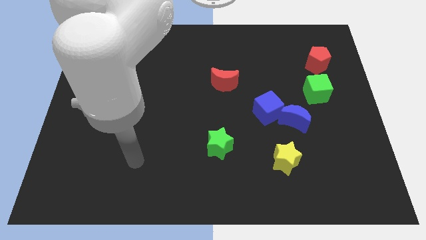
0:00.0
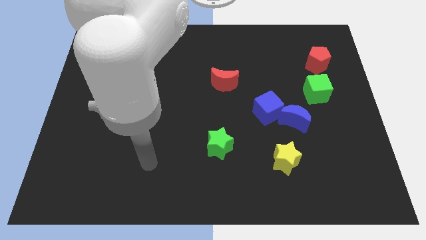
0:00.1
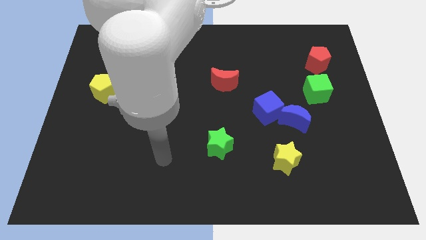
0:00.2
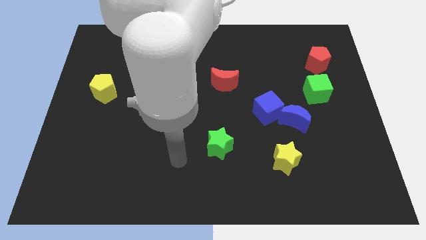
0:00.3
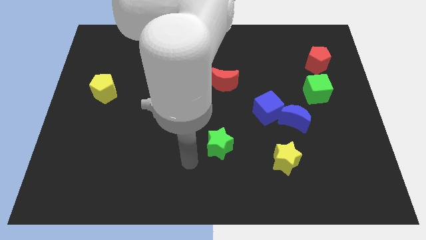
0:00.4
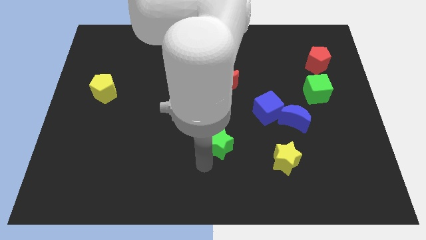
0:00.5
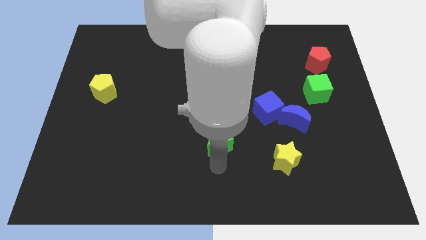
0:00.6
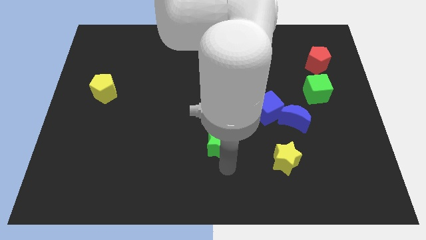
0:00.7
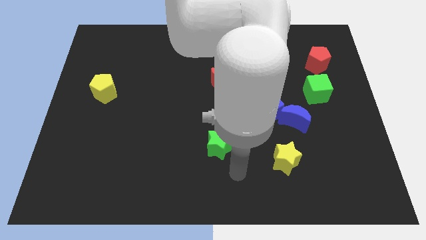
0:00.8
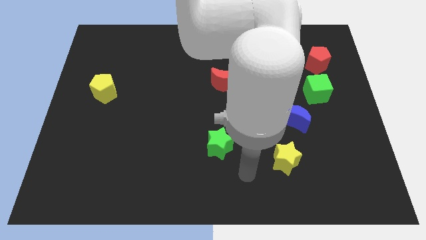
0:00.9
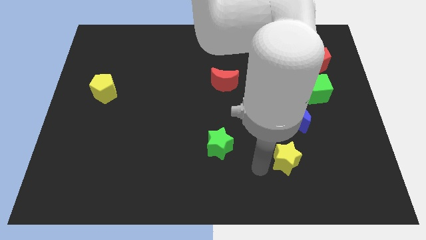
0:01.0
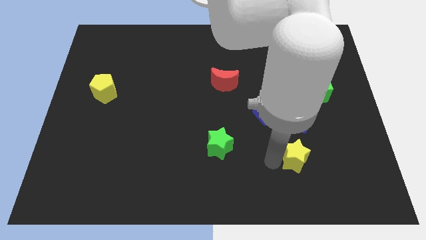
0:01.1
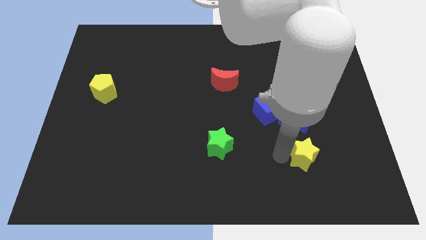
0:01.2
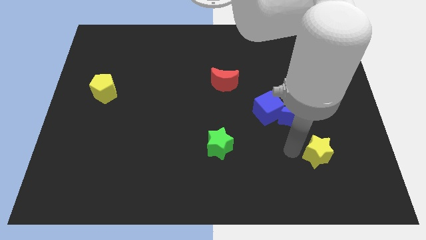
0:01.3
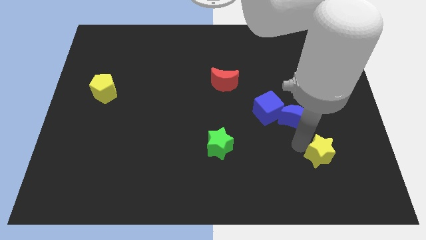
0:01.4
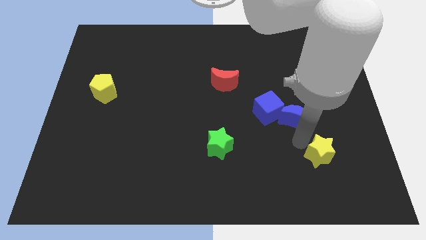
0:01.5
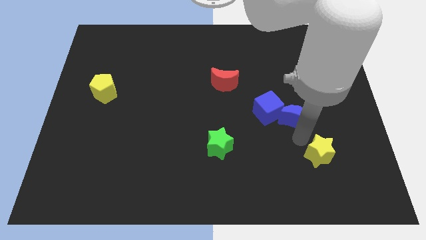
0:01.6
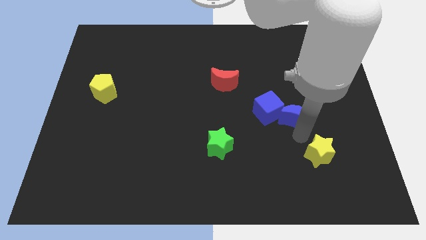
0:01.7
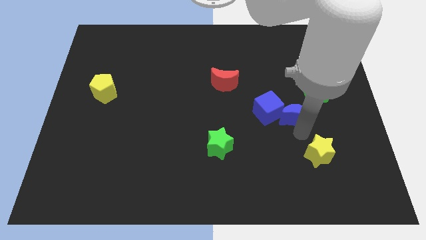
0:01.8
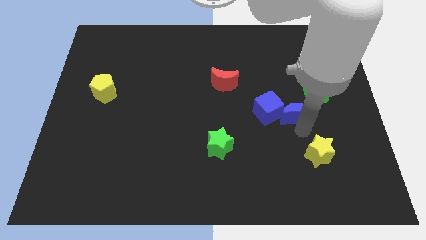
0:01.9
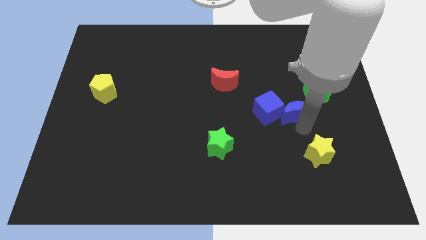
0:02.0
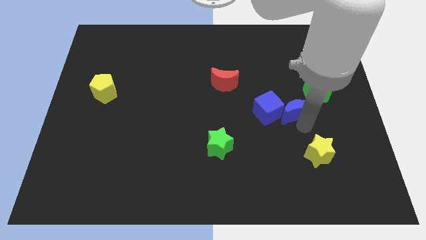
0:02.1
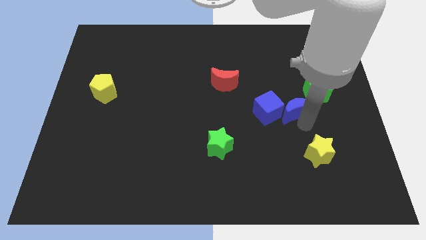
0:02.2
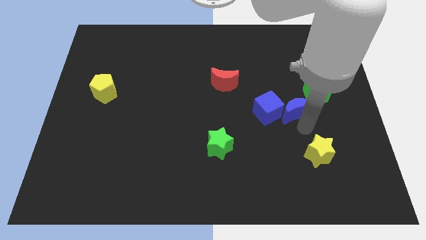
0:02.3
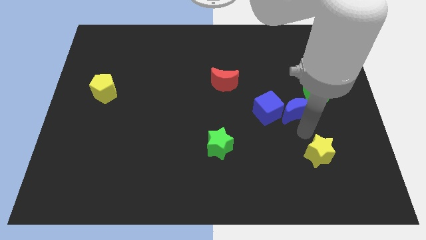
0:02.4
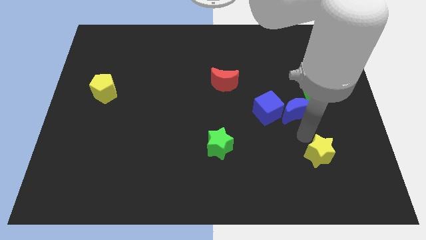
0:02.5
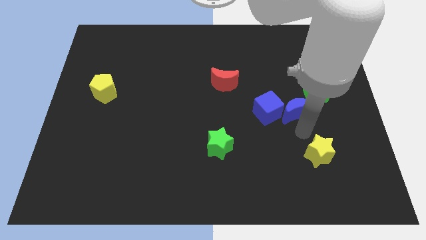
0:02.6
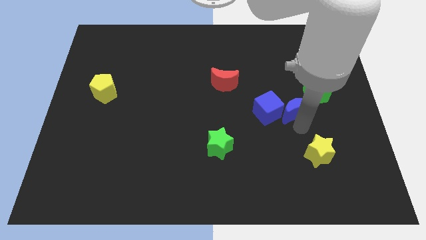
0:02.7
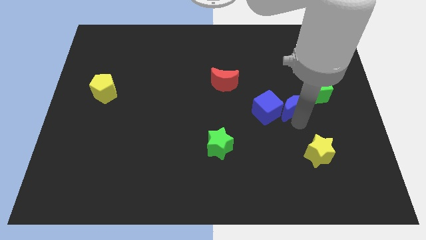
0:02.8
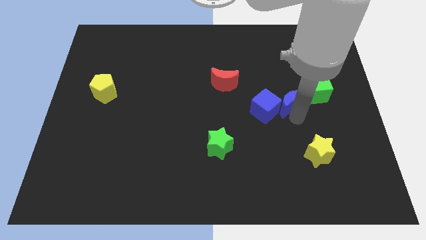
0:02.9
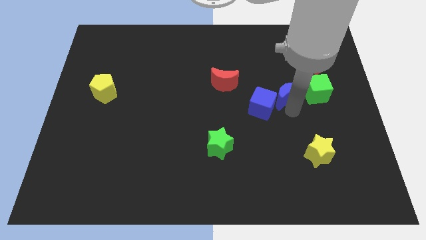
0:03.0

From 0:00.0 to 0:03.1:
slide the blue moon up a bit

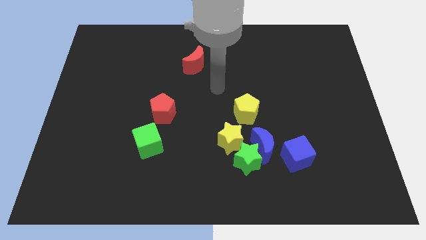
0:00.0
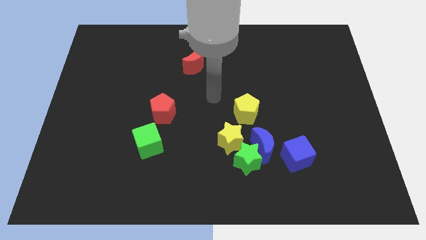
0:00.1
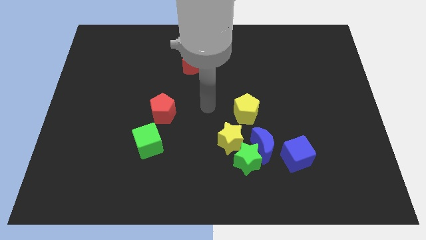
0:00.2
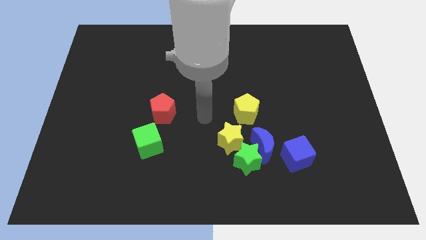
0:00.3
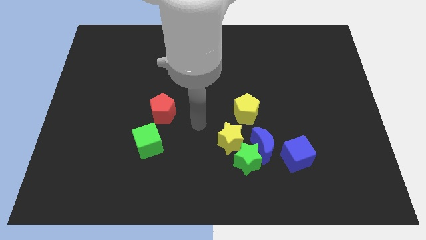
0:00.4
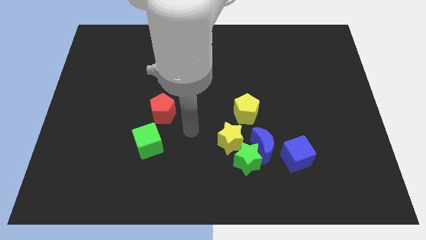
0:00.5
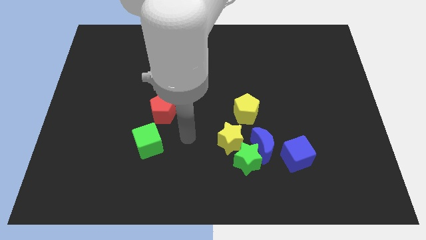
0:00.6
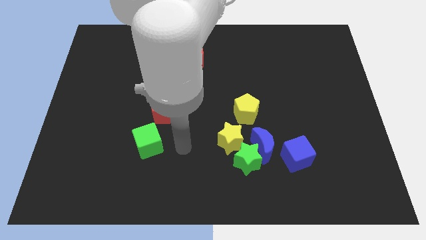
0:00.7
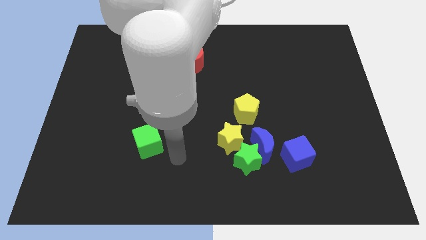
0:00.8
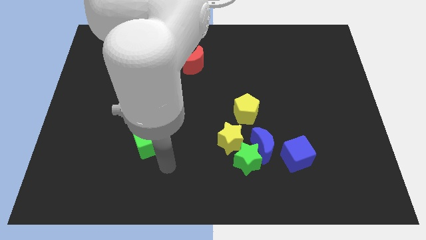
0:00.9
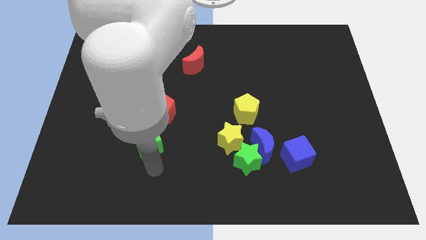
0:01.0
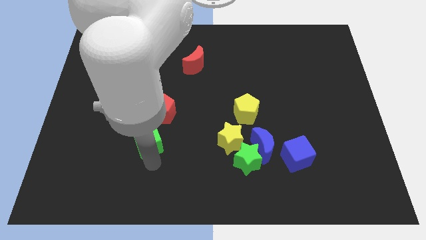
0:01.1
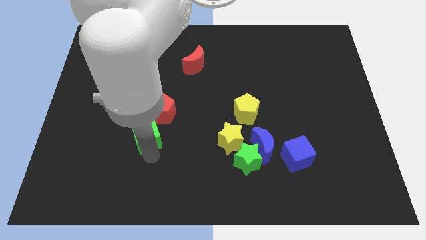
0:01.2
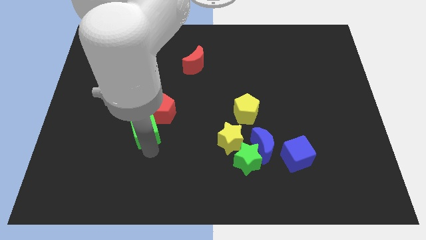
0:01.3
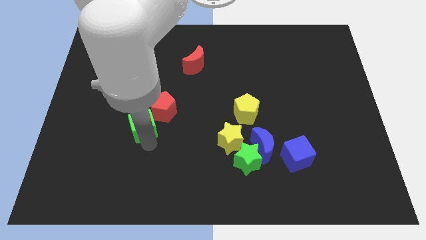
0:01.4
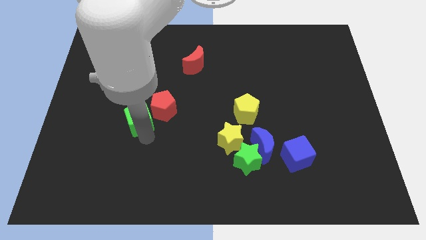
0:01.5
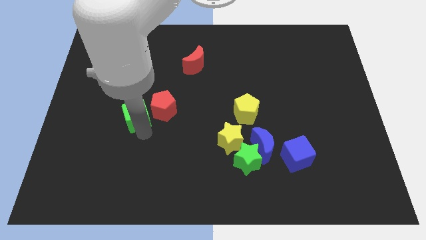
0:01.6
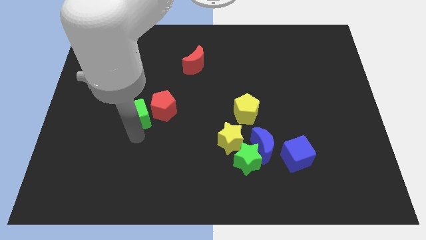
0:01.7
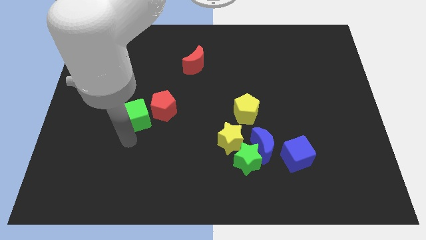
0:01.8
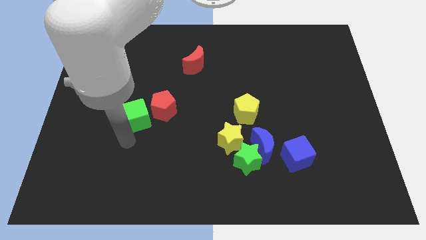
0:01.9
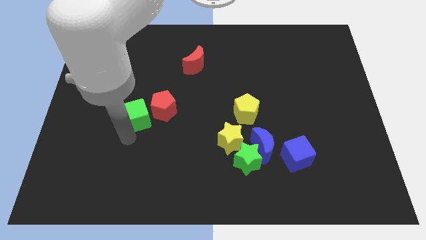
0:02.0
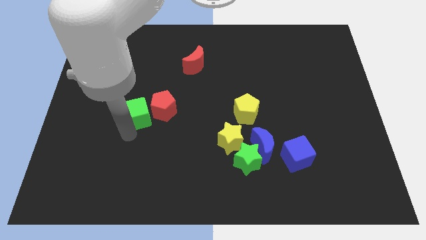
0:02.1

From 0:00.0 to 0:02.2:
push the green cube upwards slightly

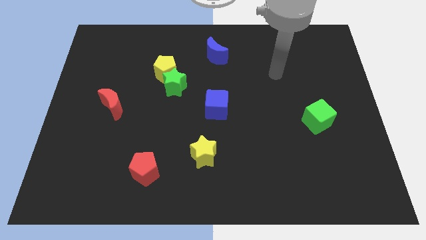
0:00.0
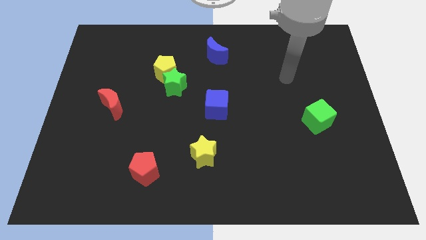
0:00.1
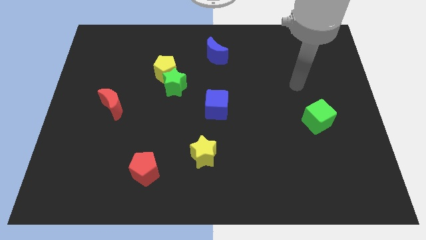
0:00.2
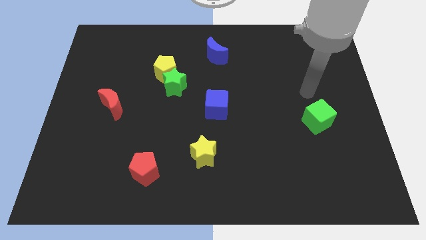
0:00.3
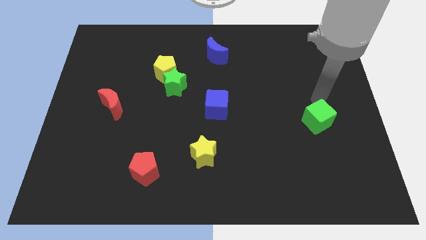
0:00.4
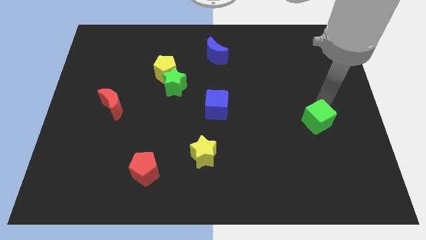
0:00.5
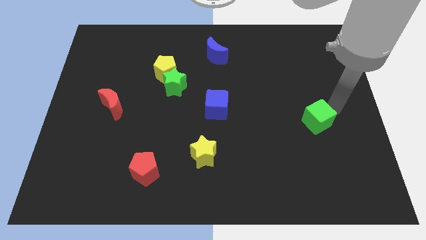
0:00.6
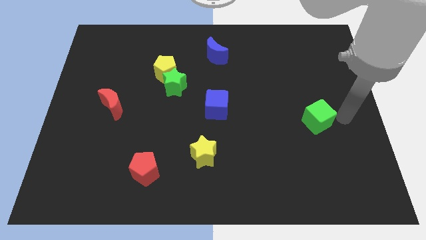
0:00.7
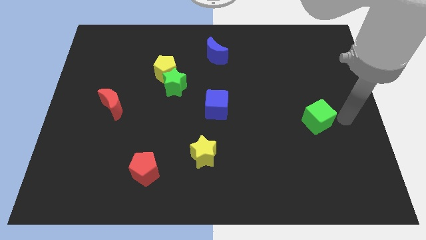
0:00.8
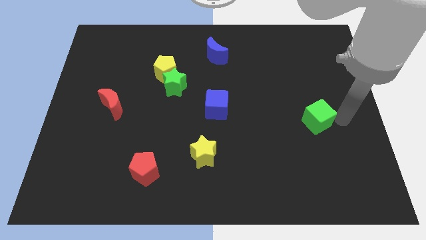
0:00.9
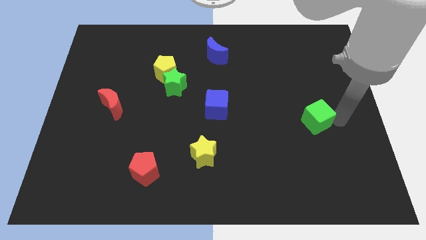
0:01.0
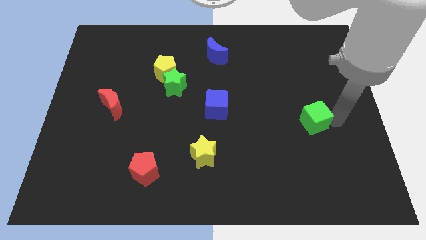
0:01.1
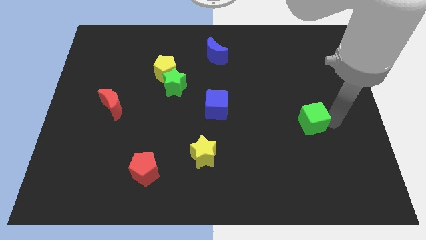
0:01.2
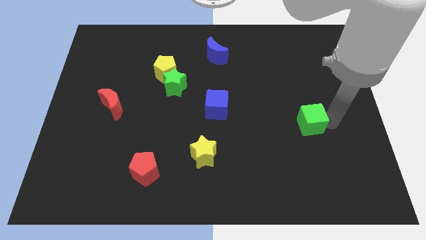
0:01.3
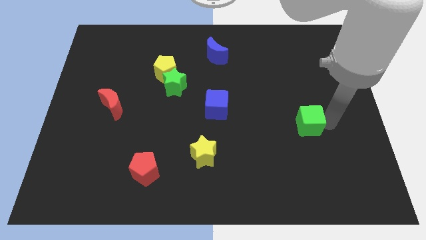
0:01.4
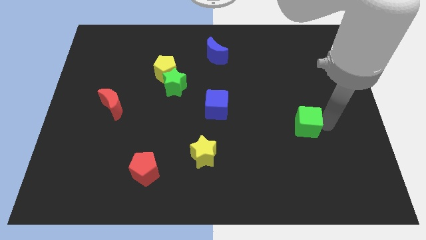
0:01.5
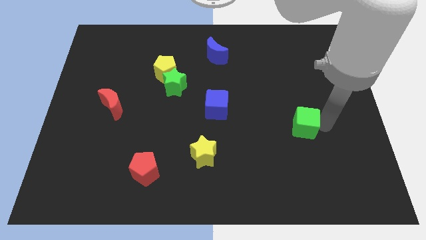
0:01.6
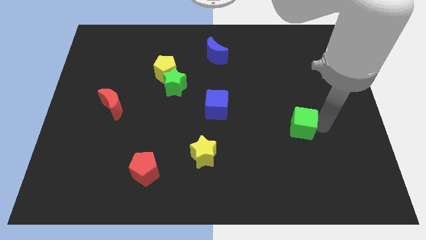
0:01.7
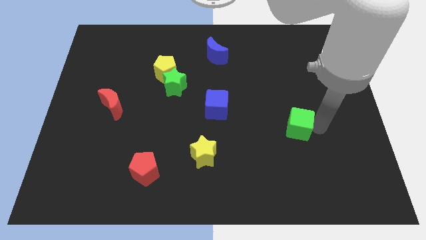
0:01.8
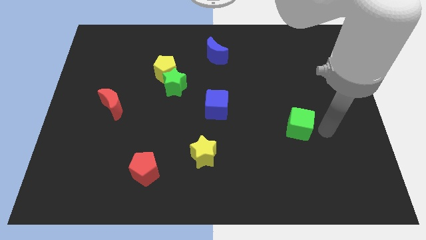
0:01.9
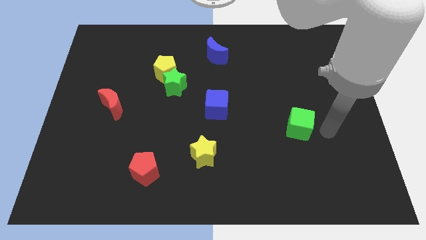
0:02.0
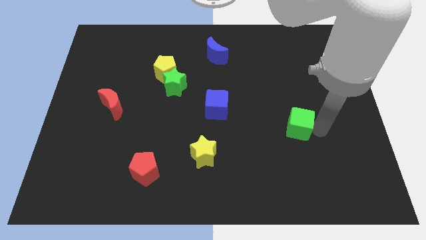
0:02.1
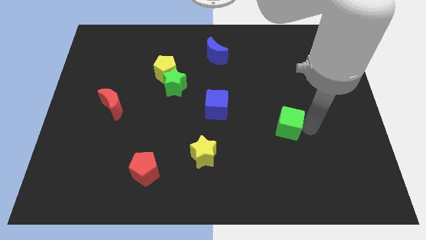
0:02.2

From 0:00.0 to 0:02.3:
slide the green cube a little bit to the left

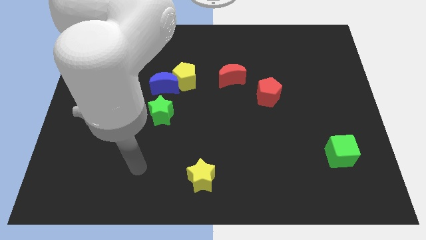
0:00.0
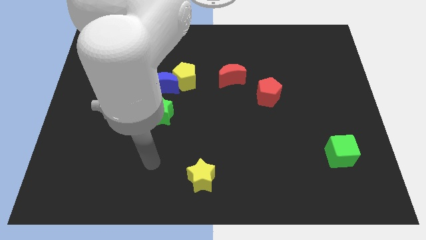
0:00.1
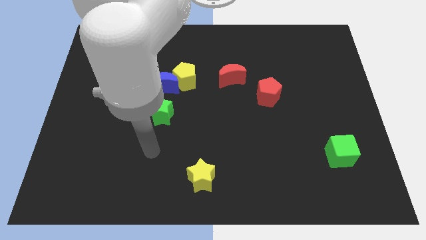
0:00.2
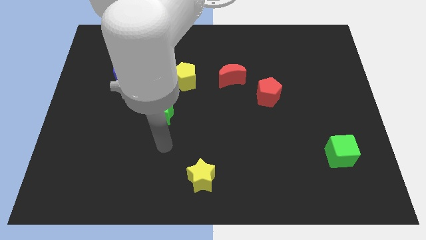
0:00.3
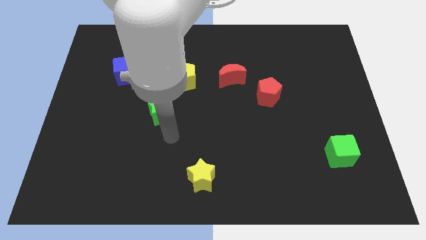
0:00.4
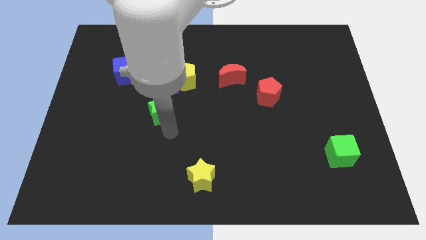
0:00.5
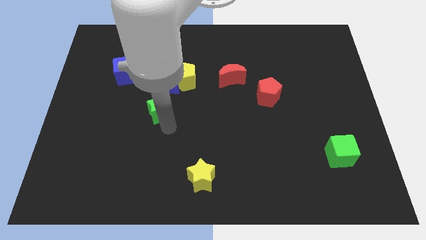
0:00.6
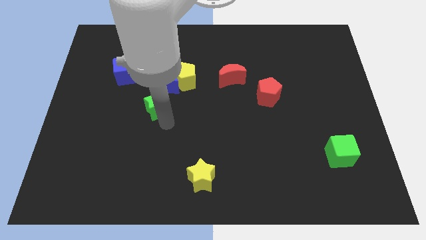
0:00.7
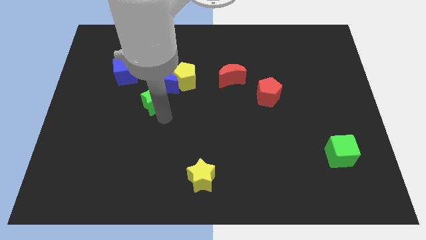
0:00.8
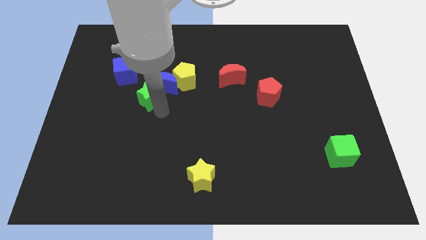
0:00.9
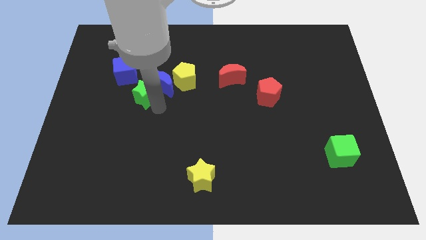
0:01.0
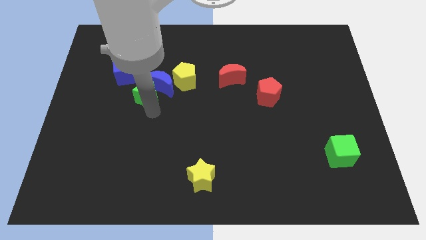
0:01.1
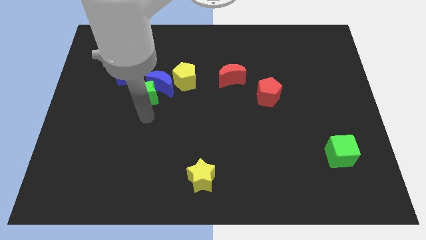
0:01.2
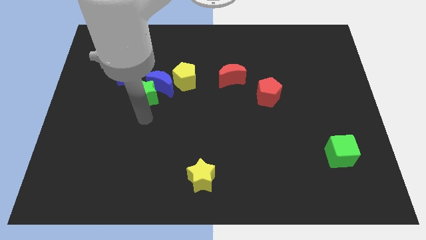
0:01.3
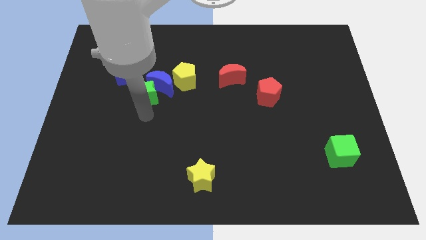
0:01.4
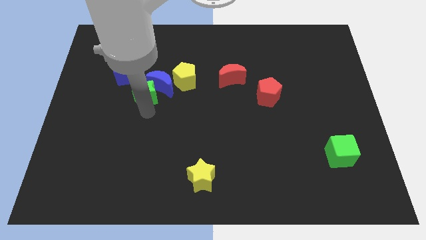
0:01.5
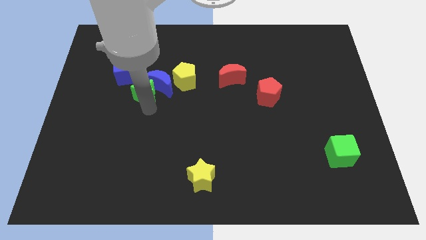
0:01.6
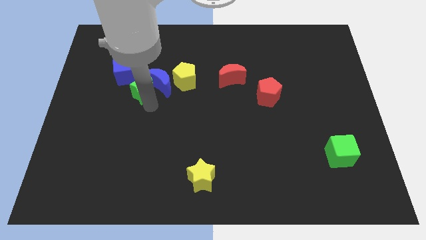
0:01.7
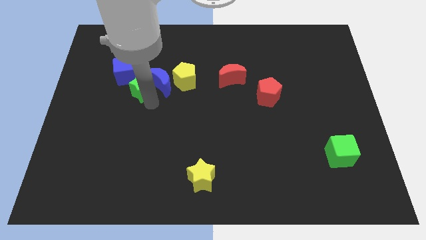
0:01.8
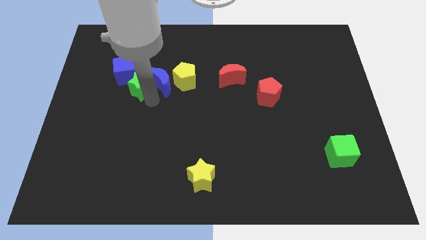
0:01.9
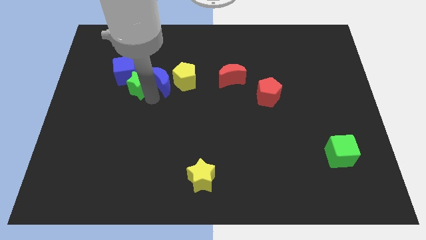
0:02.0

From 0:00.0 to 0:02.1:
move the green star slightly upwards
